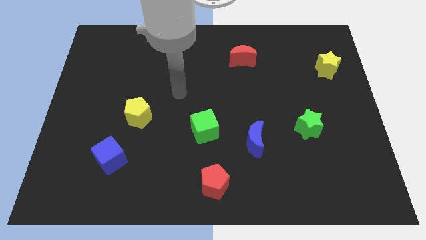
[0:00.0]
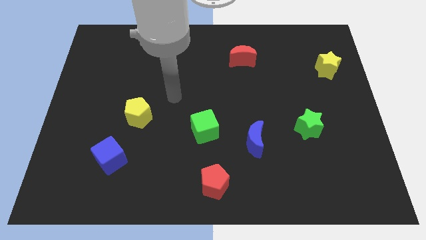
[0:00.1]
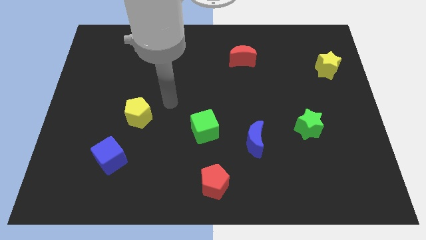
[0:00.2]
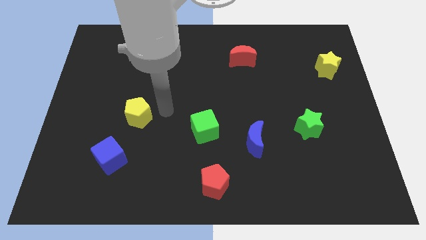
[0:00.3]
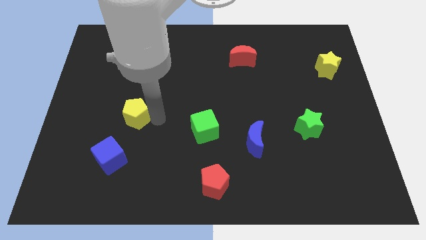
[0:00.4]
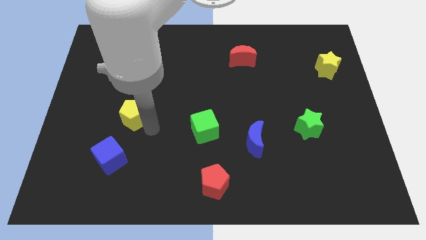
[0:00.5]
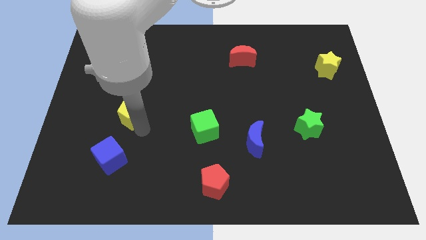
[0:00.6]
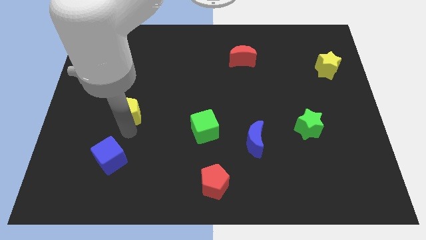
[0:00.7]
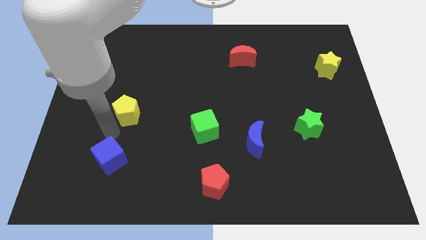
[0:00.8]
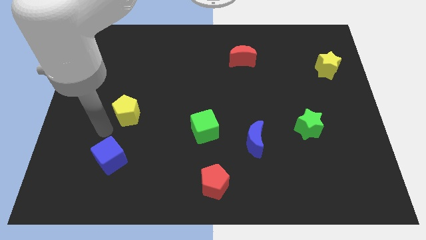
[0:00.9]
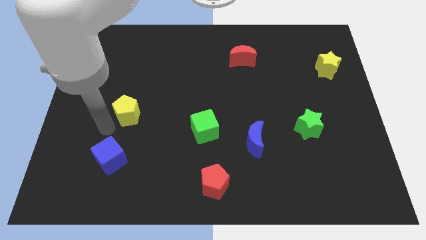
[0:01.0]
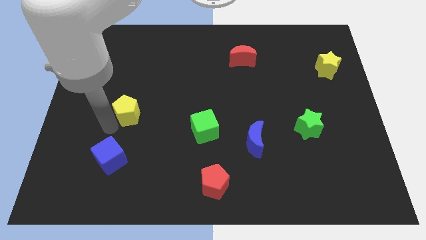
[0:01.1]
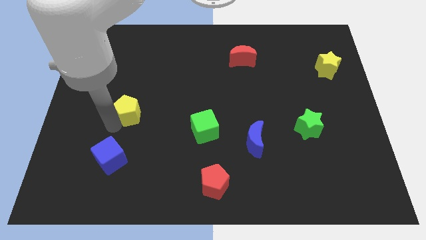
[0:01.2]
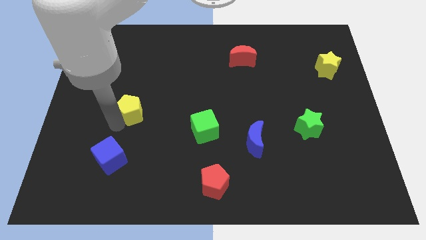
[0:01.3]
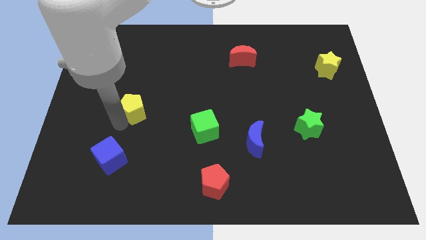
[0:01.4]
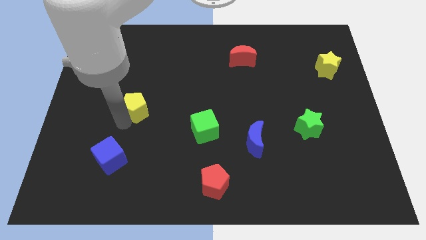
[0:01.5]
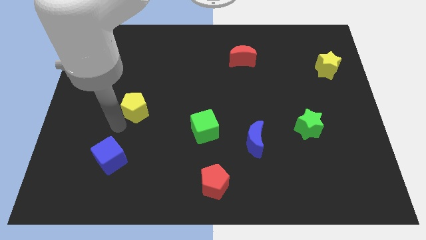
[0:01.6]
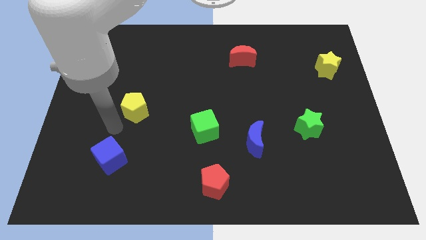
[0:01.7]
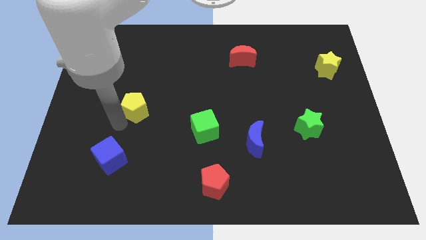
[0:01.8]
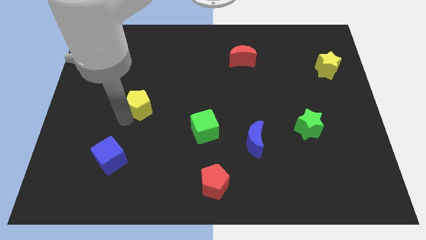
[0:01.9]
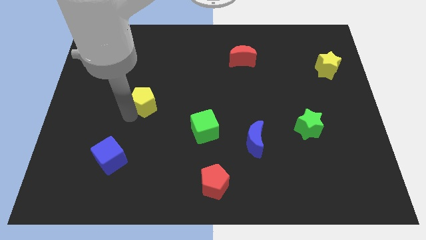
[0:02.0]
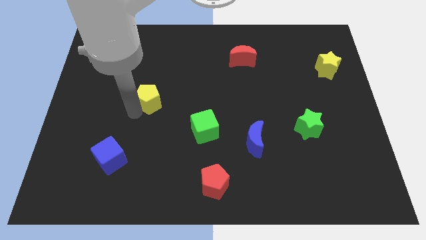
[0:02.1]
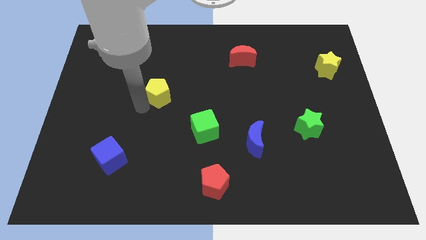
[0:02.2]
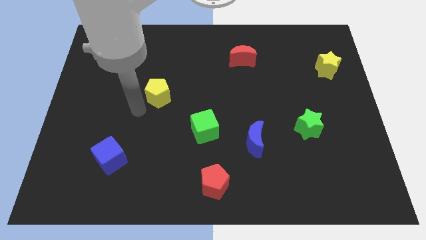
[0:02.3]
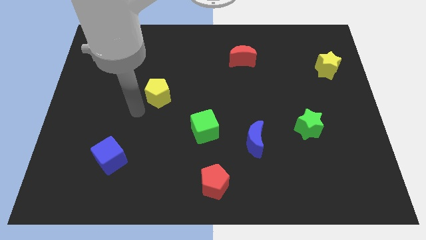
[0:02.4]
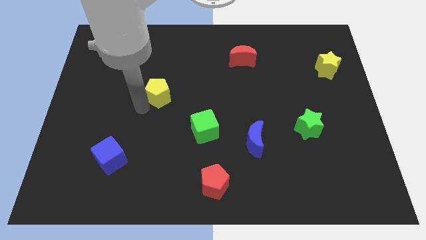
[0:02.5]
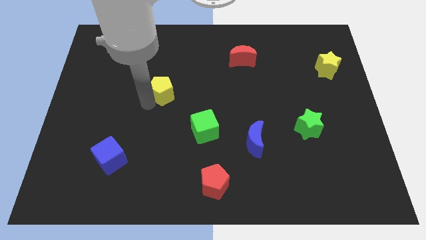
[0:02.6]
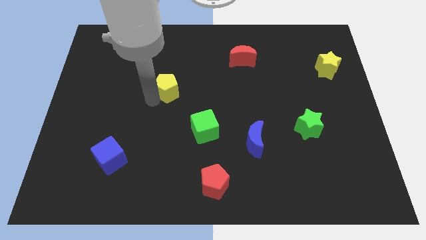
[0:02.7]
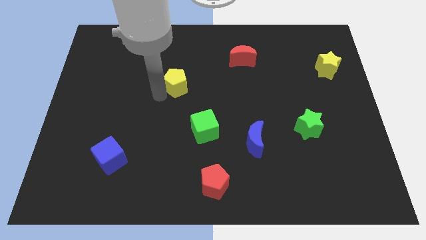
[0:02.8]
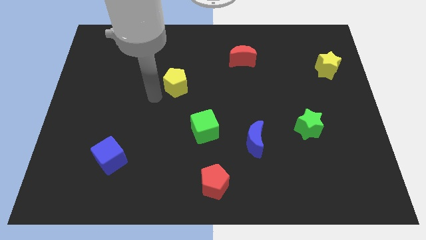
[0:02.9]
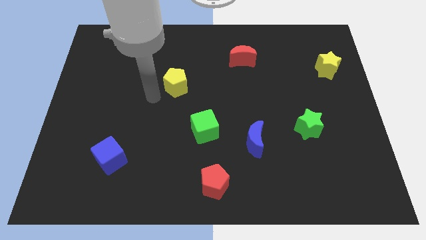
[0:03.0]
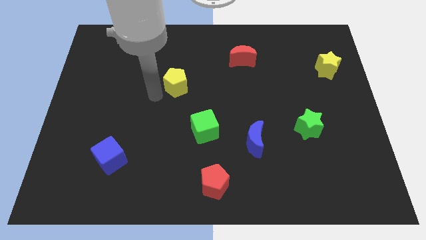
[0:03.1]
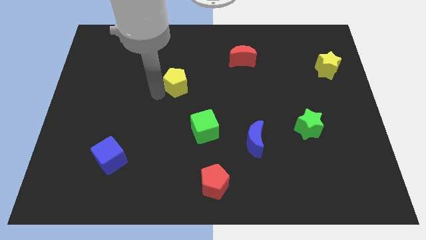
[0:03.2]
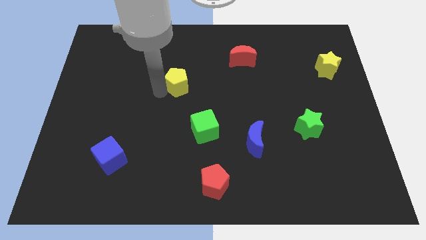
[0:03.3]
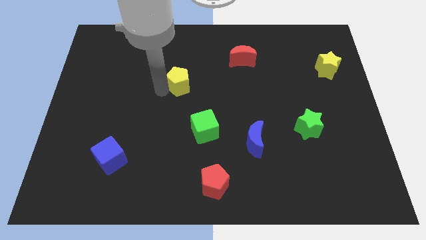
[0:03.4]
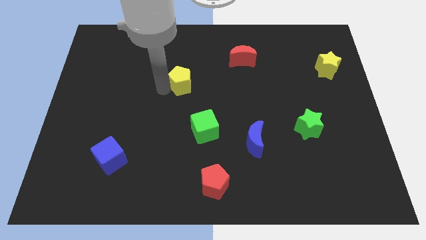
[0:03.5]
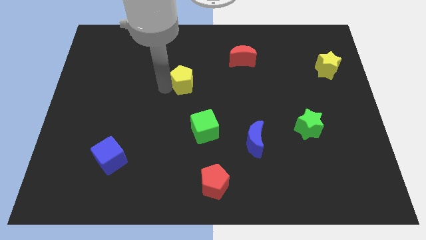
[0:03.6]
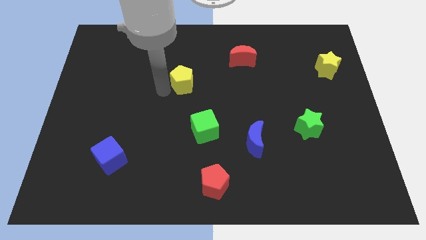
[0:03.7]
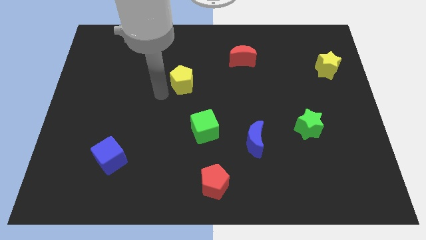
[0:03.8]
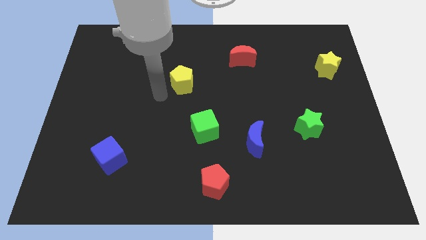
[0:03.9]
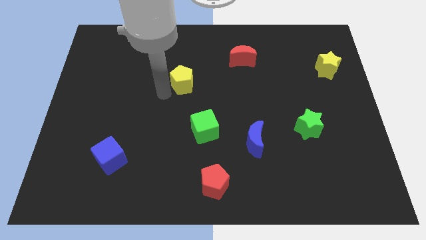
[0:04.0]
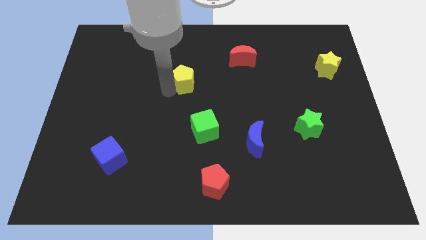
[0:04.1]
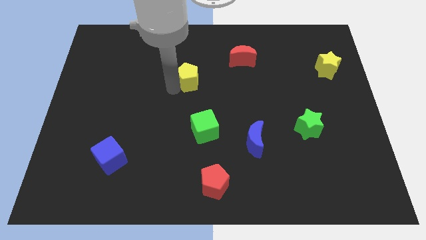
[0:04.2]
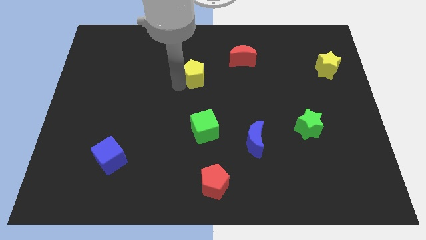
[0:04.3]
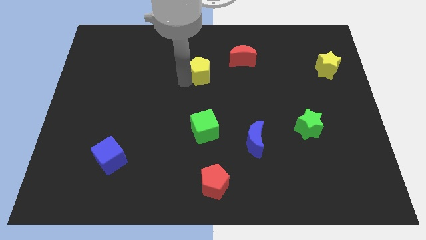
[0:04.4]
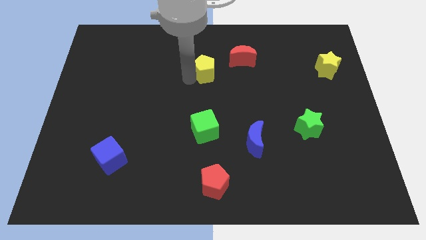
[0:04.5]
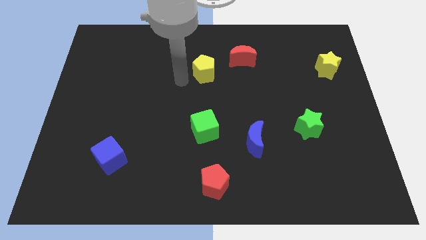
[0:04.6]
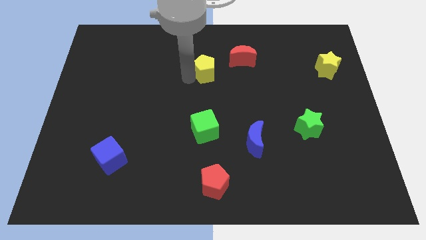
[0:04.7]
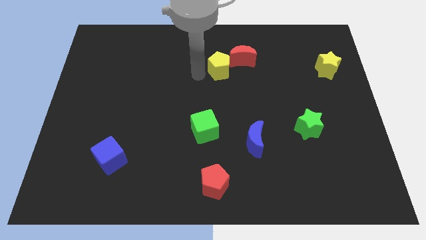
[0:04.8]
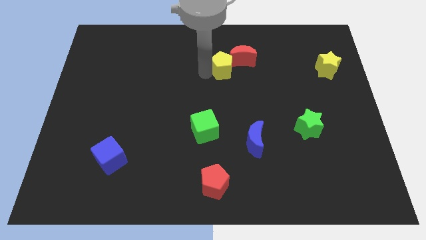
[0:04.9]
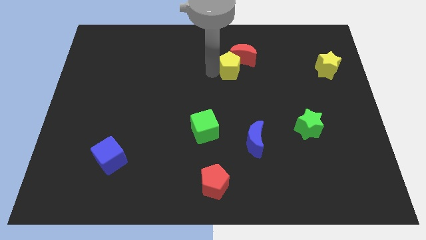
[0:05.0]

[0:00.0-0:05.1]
put the yellow pentagon to the red moon

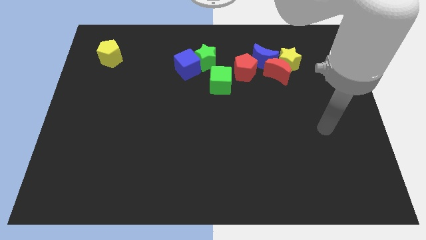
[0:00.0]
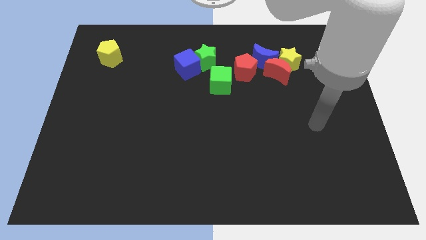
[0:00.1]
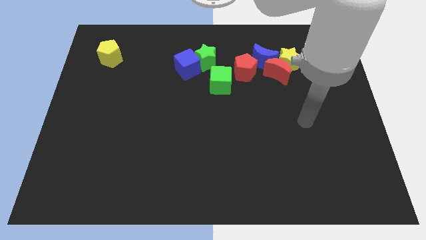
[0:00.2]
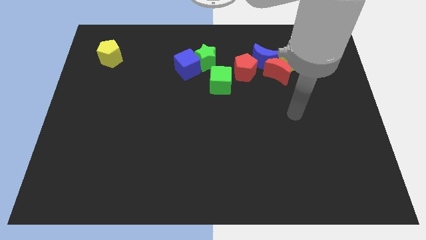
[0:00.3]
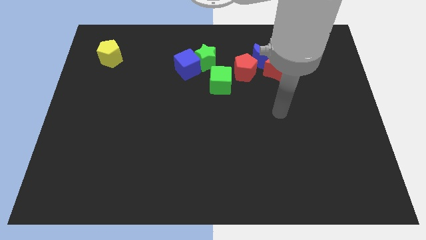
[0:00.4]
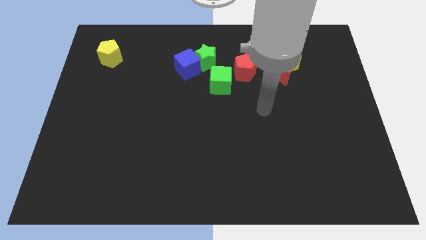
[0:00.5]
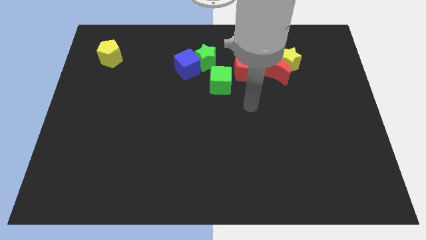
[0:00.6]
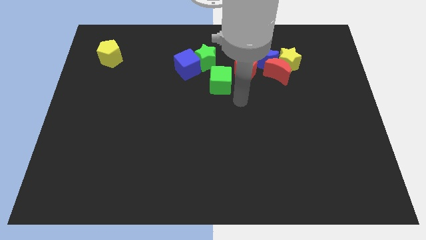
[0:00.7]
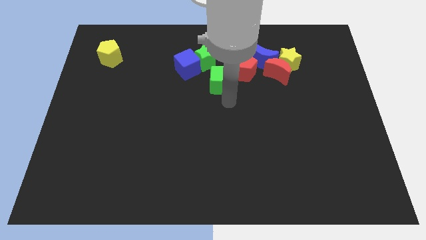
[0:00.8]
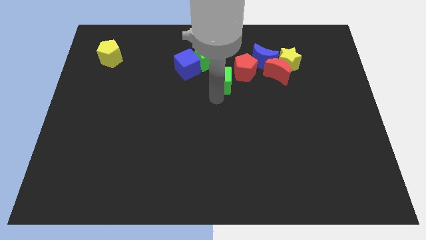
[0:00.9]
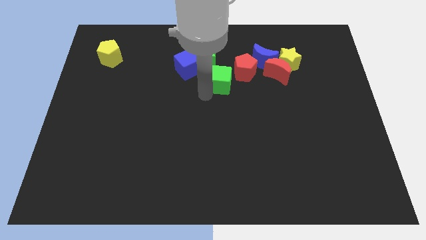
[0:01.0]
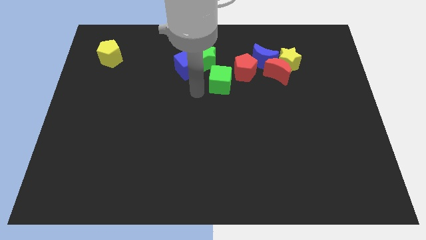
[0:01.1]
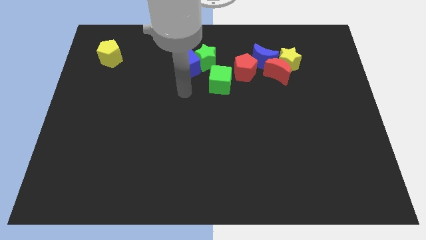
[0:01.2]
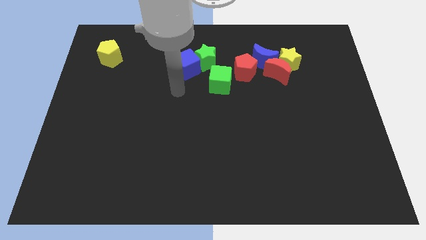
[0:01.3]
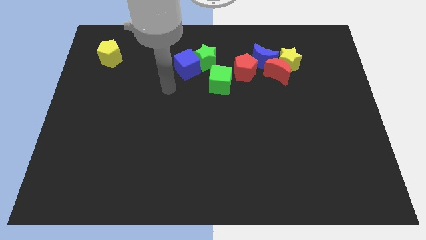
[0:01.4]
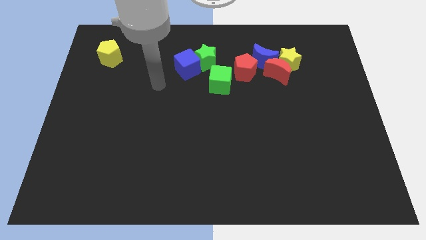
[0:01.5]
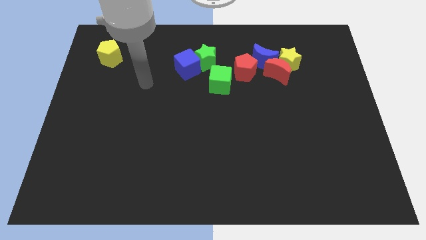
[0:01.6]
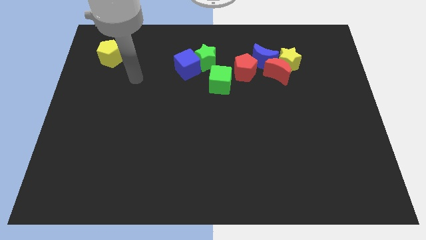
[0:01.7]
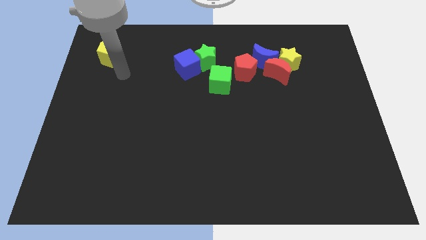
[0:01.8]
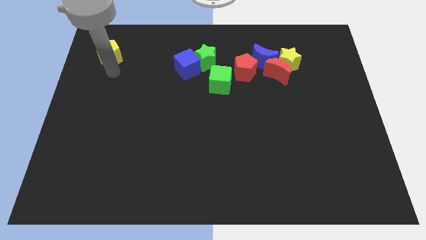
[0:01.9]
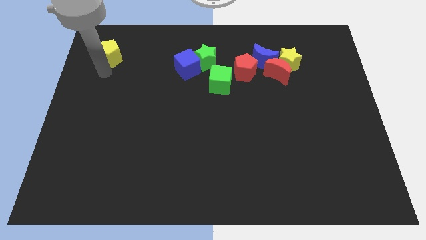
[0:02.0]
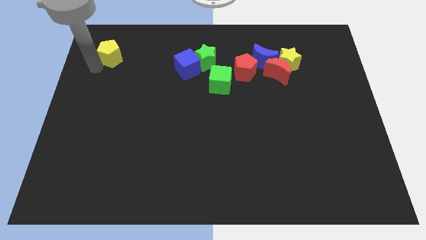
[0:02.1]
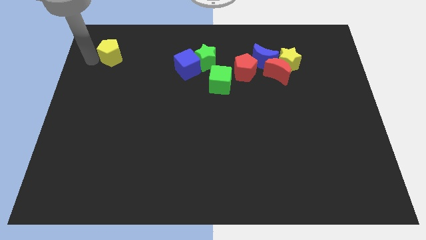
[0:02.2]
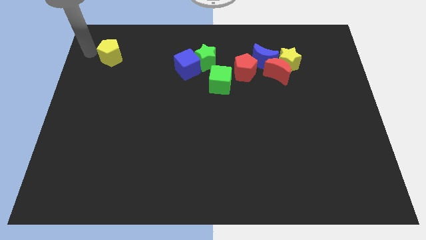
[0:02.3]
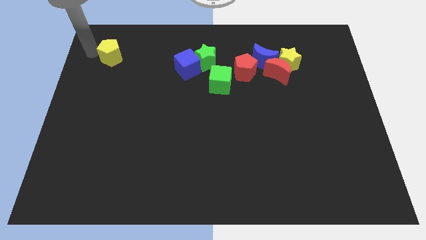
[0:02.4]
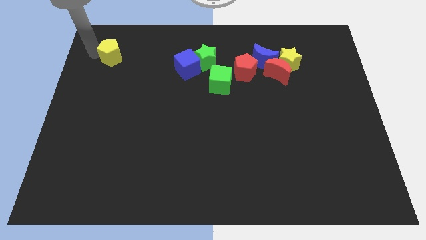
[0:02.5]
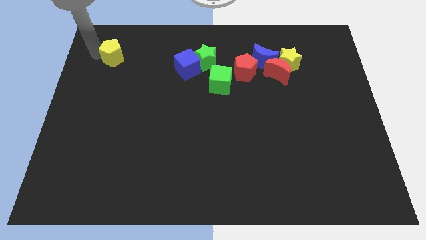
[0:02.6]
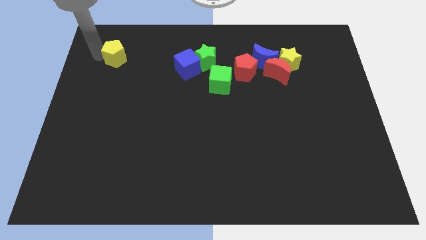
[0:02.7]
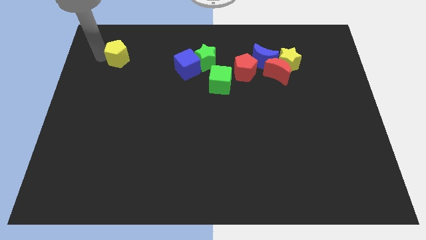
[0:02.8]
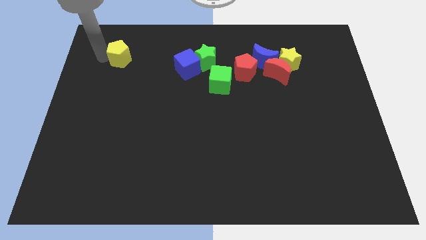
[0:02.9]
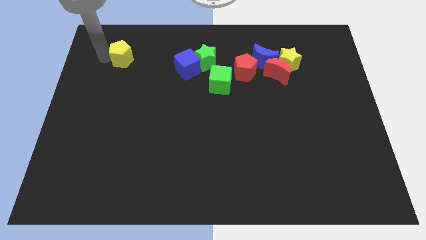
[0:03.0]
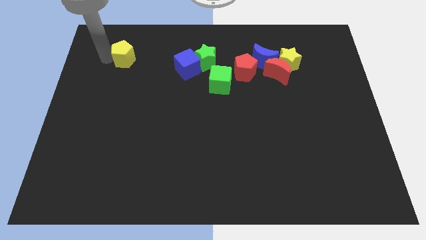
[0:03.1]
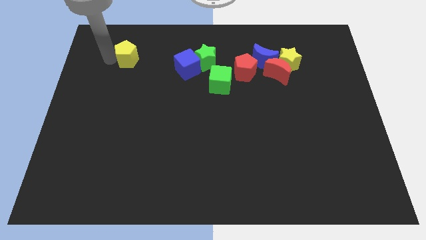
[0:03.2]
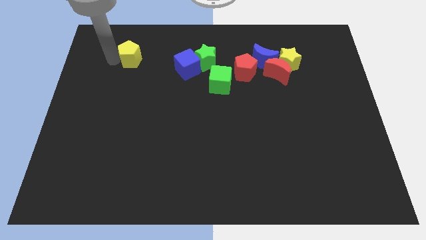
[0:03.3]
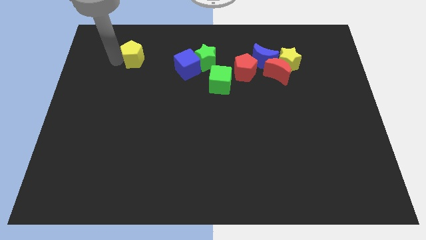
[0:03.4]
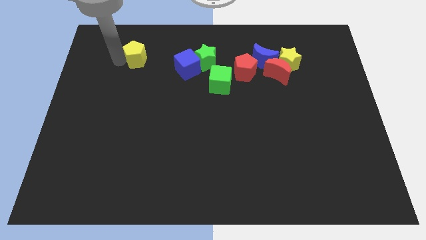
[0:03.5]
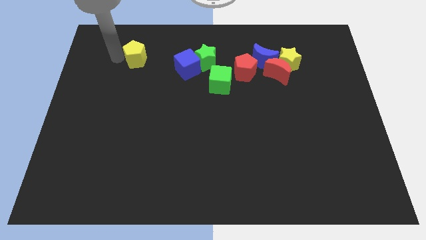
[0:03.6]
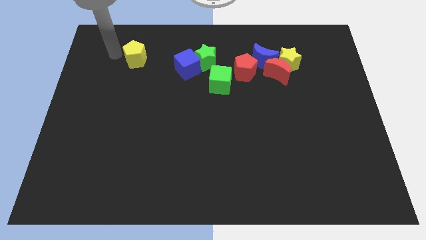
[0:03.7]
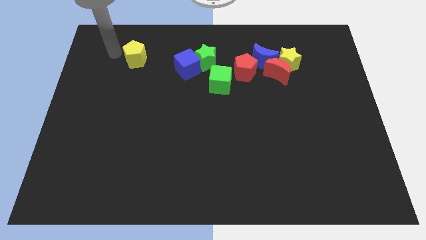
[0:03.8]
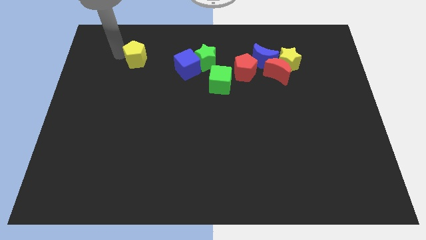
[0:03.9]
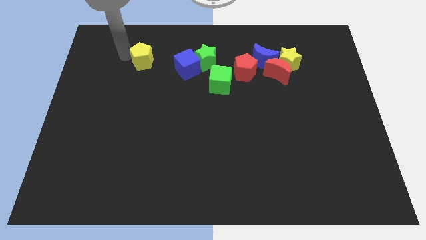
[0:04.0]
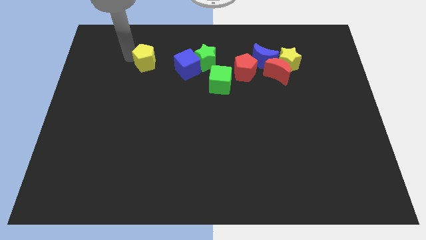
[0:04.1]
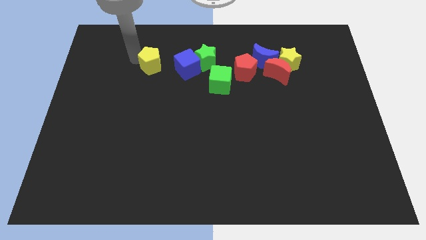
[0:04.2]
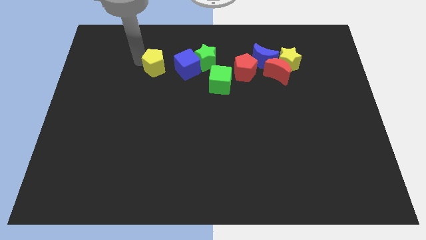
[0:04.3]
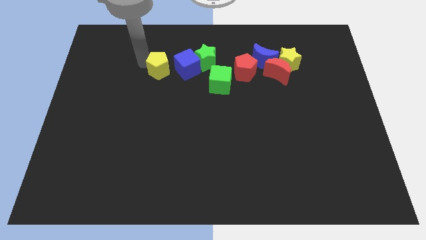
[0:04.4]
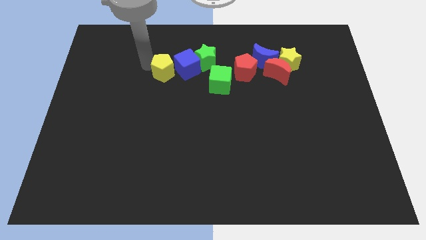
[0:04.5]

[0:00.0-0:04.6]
put the yellow pentagon to the blue cube
